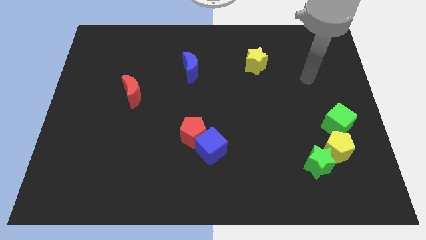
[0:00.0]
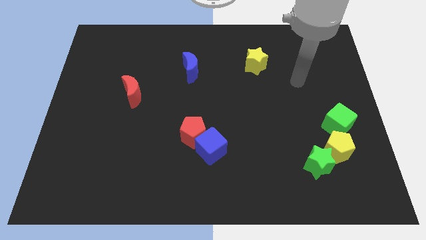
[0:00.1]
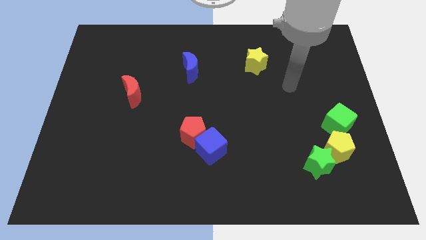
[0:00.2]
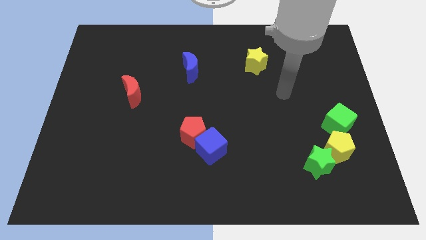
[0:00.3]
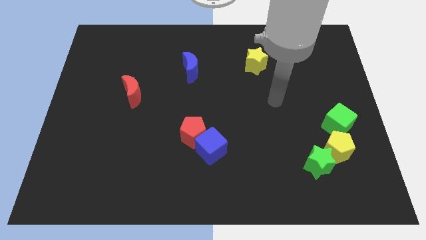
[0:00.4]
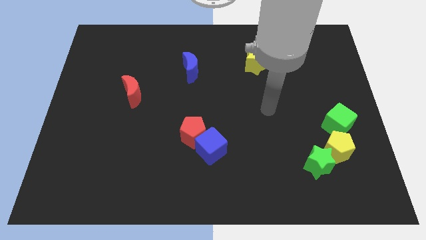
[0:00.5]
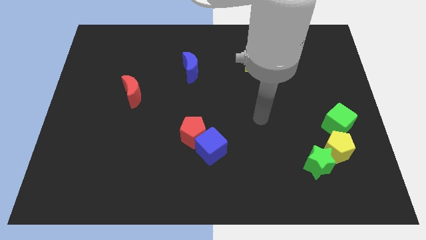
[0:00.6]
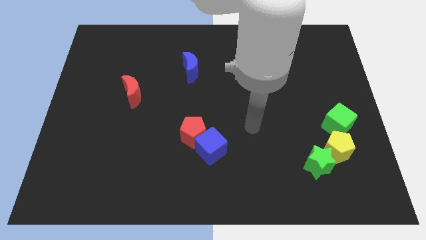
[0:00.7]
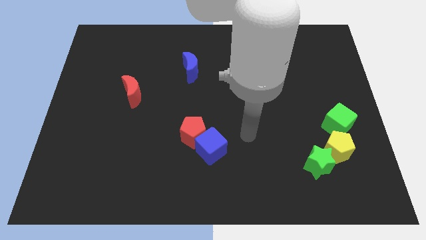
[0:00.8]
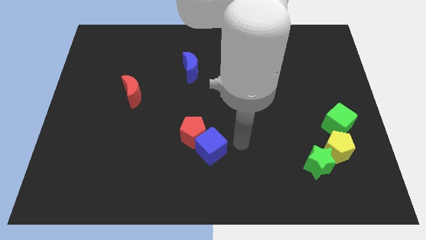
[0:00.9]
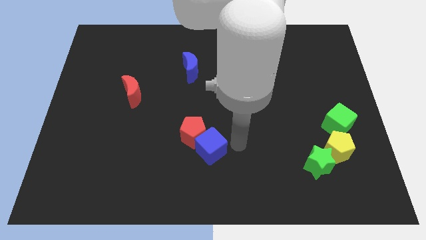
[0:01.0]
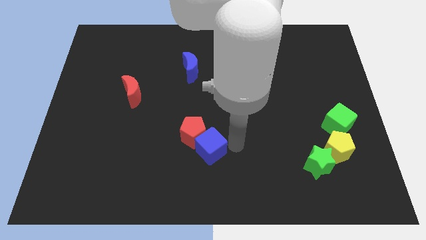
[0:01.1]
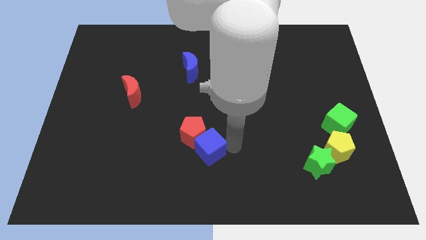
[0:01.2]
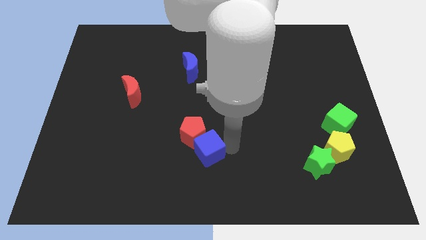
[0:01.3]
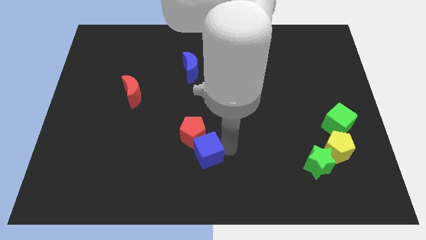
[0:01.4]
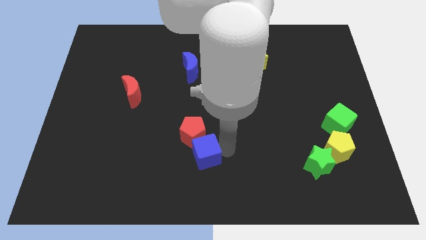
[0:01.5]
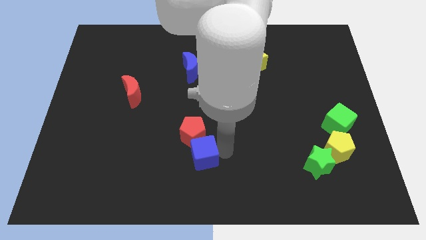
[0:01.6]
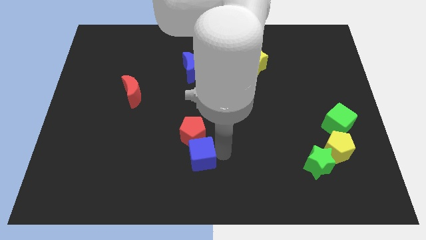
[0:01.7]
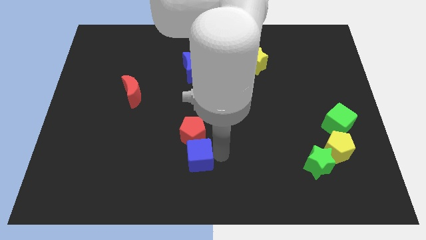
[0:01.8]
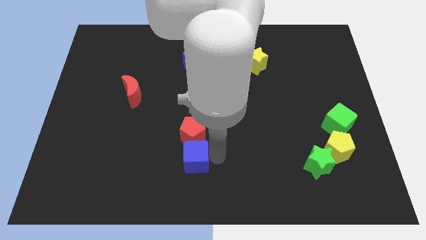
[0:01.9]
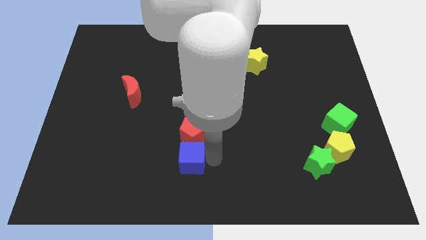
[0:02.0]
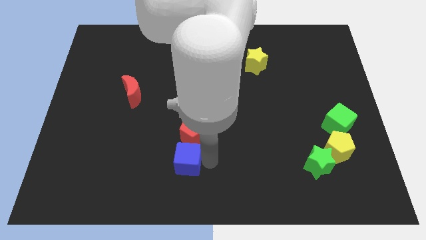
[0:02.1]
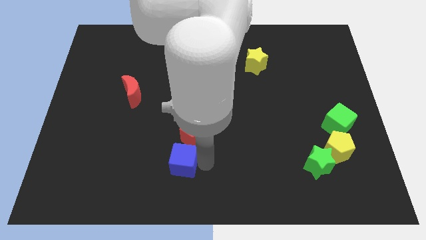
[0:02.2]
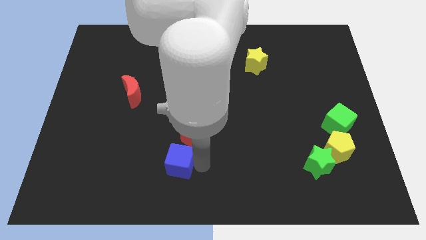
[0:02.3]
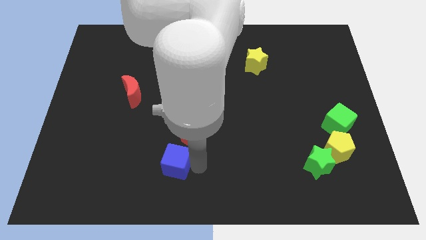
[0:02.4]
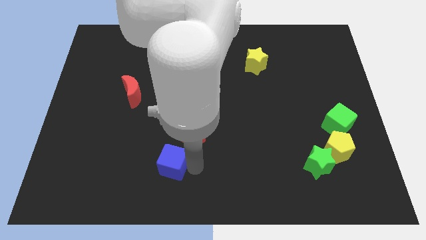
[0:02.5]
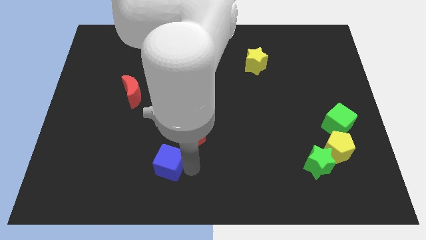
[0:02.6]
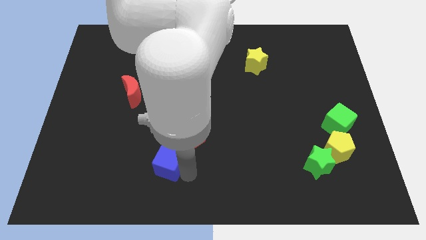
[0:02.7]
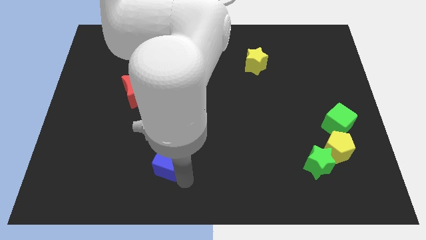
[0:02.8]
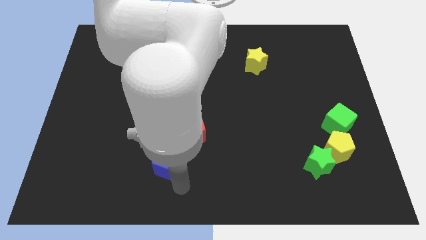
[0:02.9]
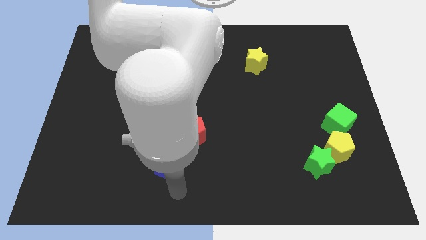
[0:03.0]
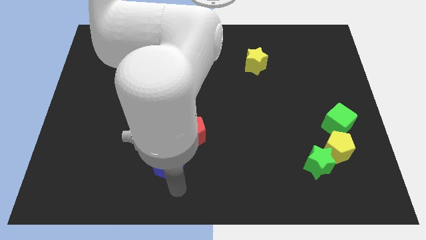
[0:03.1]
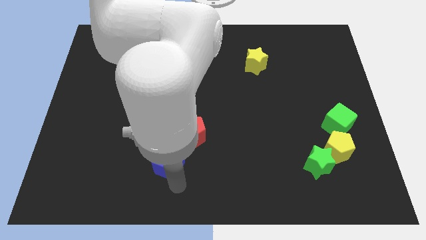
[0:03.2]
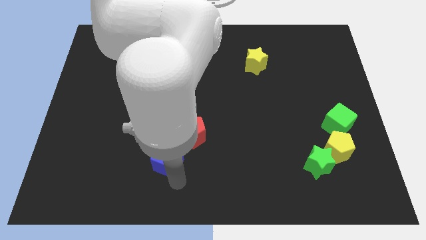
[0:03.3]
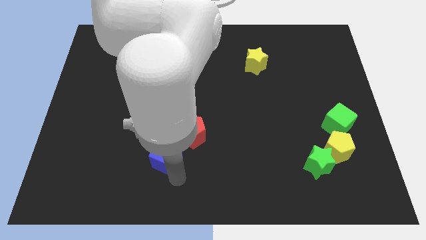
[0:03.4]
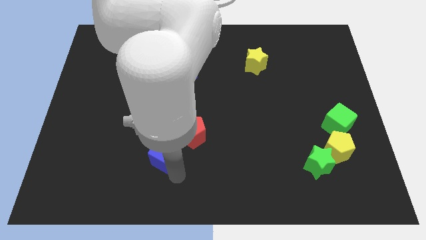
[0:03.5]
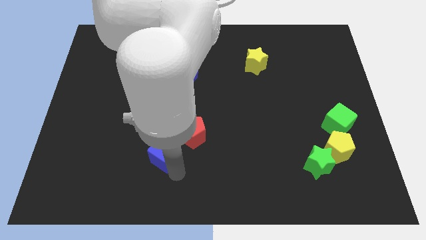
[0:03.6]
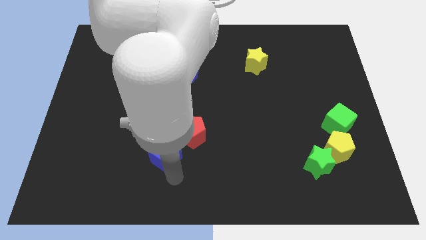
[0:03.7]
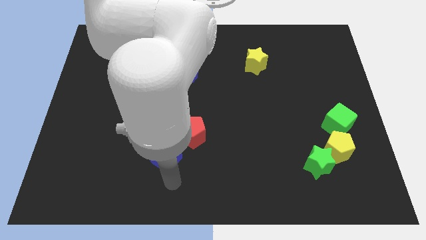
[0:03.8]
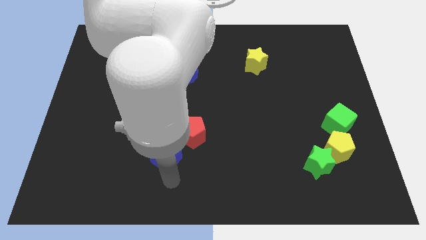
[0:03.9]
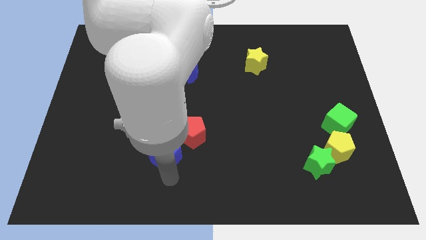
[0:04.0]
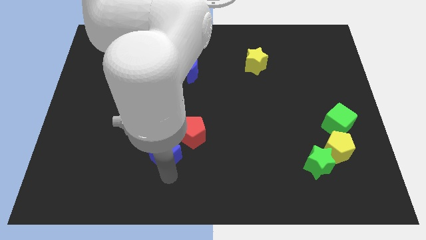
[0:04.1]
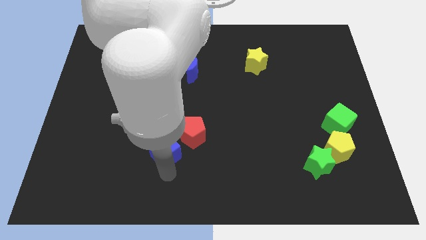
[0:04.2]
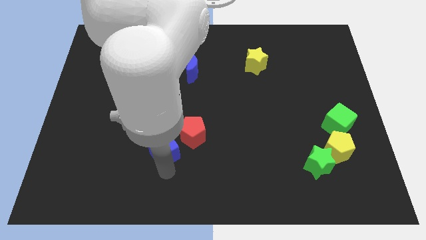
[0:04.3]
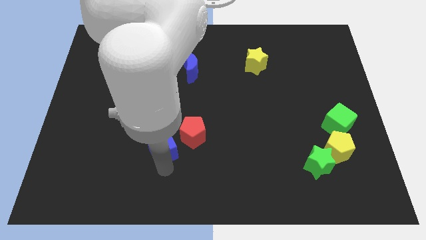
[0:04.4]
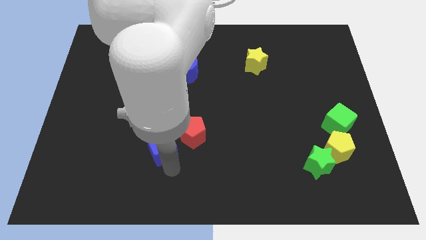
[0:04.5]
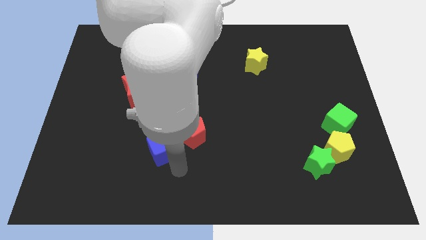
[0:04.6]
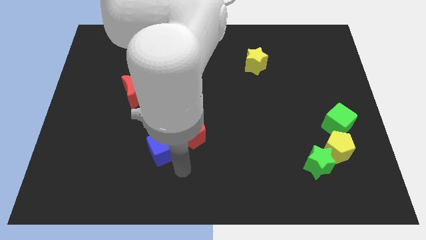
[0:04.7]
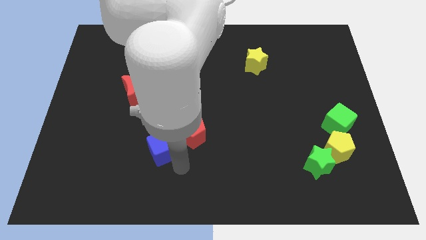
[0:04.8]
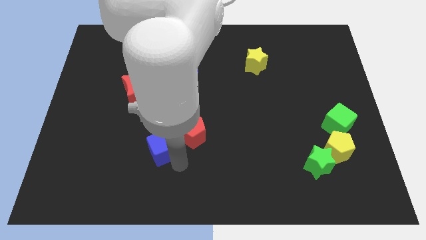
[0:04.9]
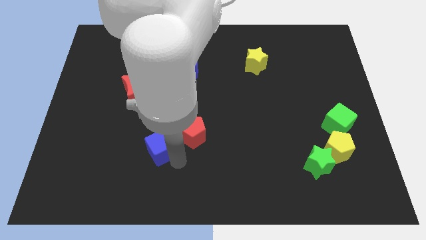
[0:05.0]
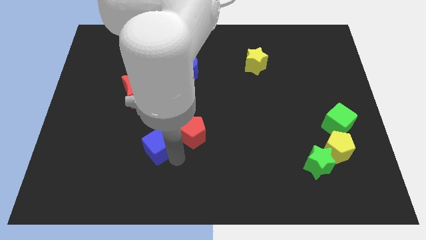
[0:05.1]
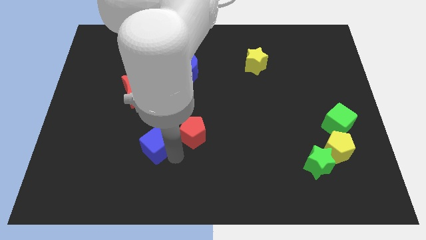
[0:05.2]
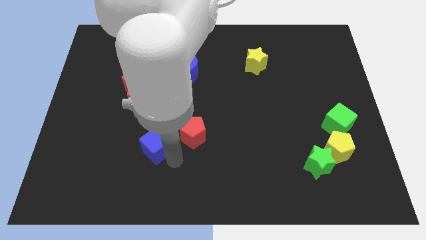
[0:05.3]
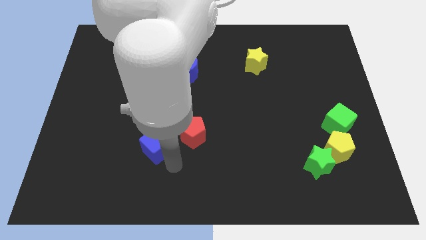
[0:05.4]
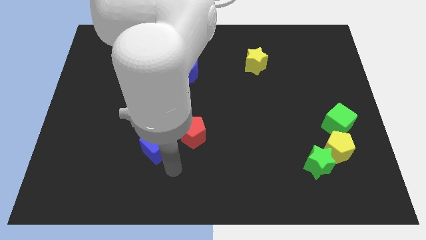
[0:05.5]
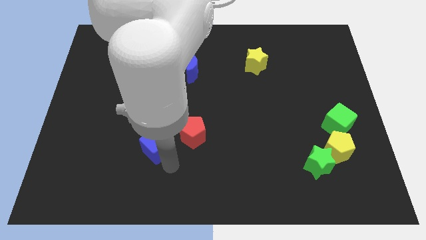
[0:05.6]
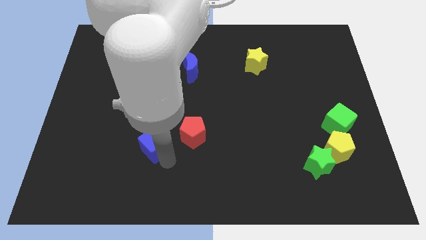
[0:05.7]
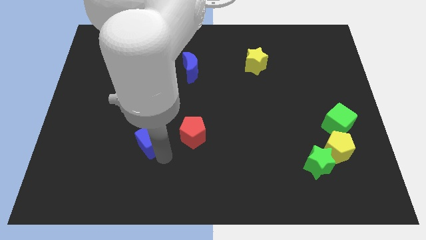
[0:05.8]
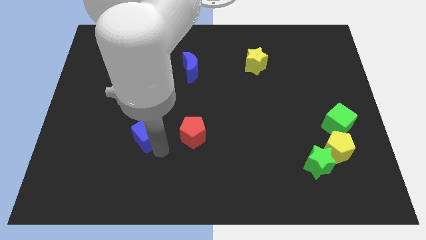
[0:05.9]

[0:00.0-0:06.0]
slide the blue cube to the bottom side of the red moon

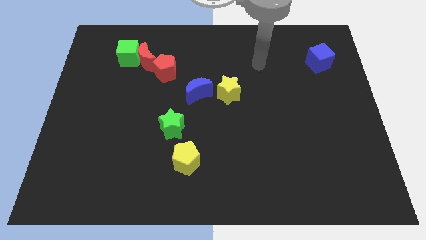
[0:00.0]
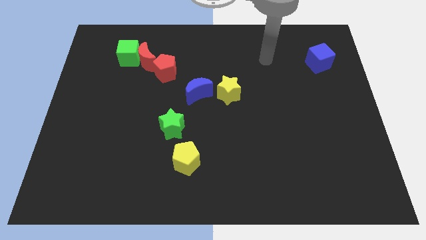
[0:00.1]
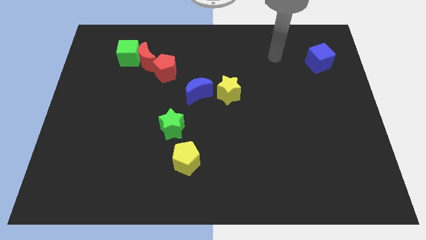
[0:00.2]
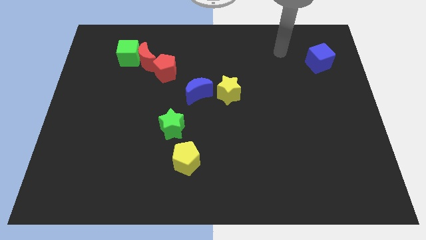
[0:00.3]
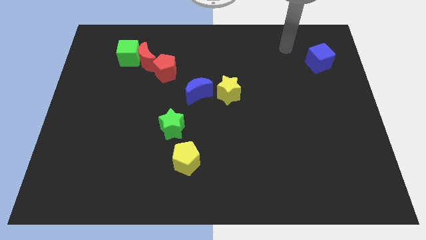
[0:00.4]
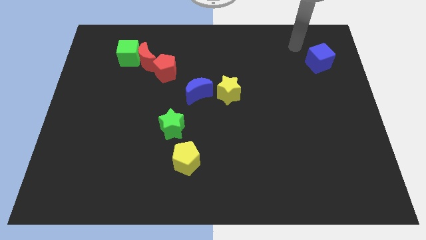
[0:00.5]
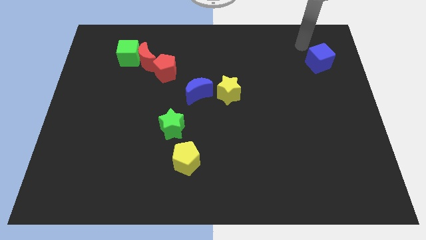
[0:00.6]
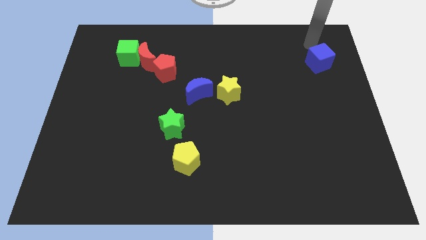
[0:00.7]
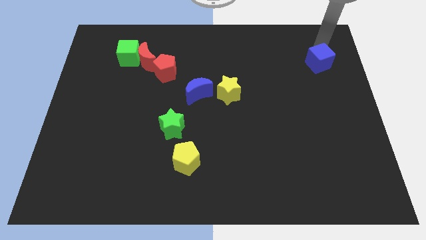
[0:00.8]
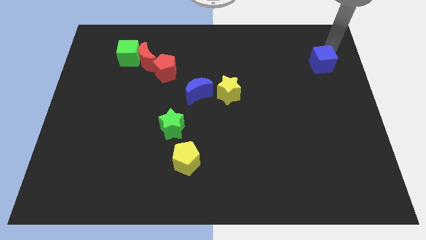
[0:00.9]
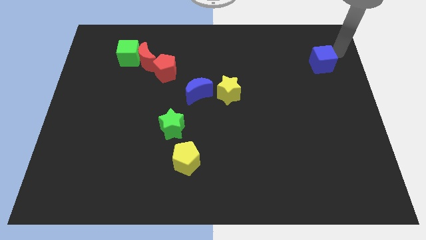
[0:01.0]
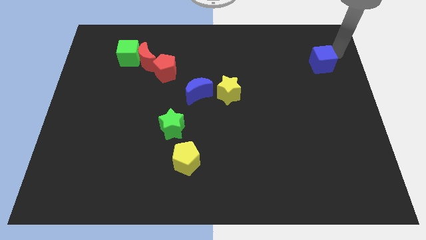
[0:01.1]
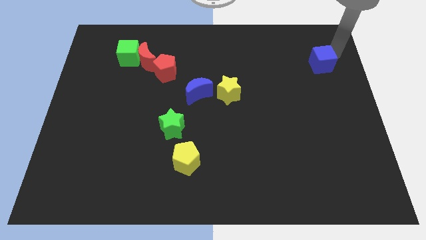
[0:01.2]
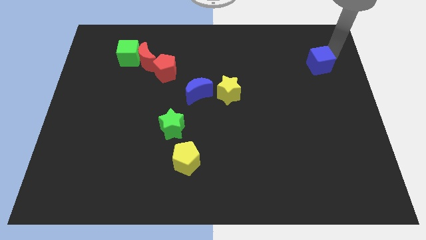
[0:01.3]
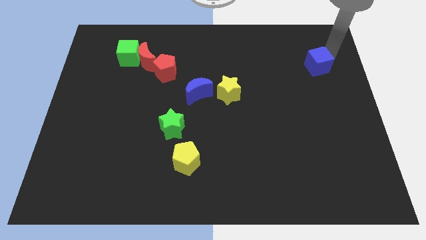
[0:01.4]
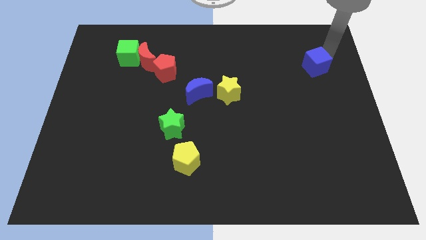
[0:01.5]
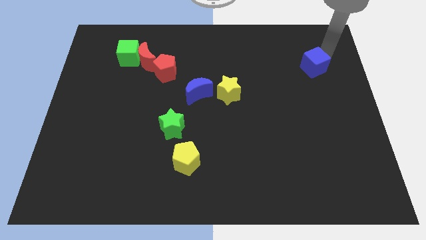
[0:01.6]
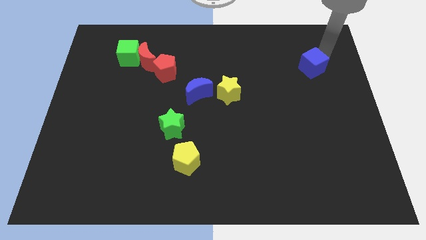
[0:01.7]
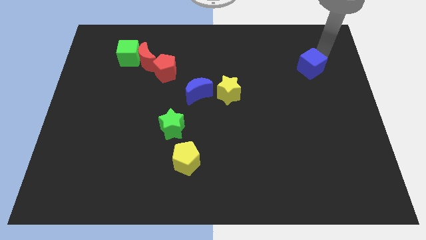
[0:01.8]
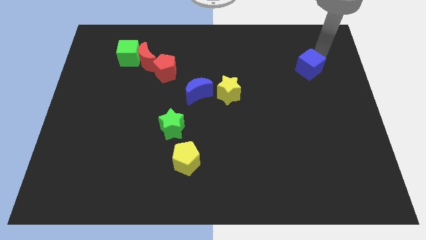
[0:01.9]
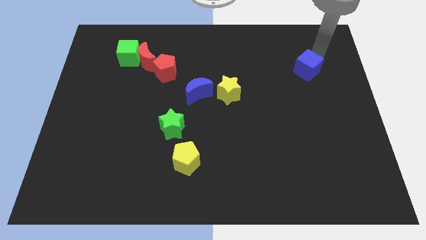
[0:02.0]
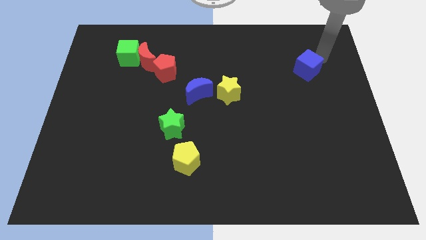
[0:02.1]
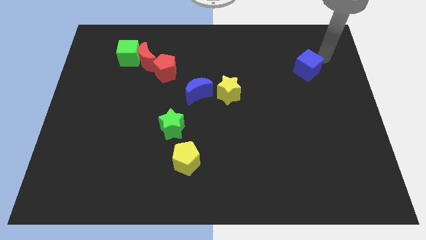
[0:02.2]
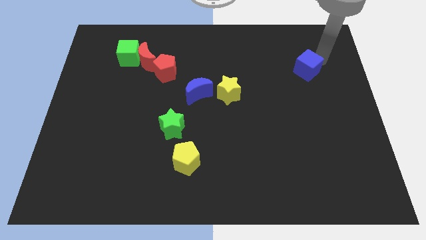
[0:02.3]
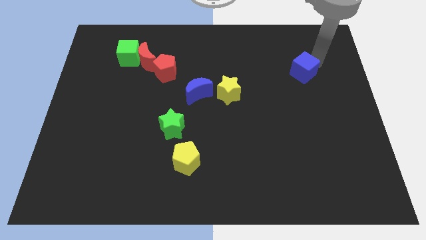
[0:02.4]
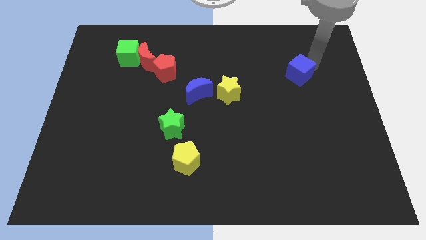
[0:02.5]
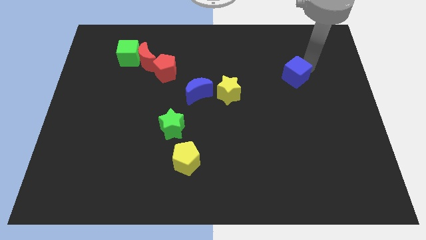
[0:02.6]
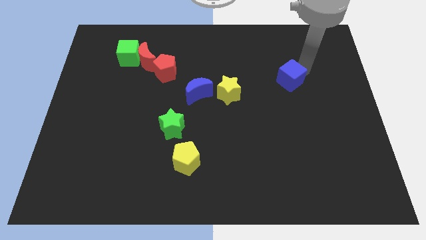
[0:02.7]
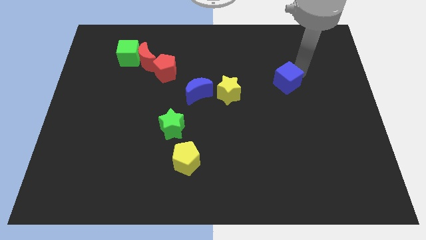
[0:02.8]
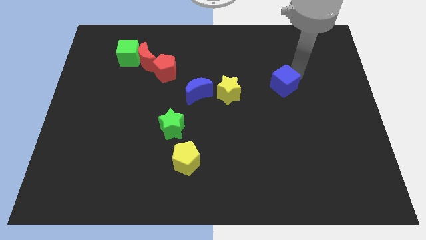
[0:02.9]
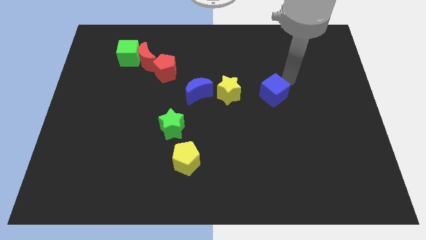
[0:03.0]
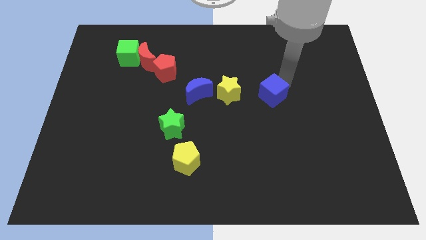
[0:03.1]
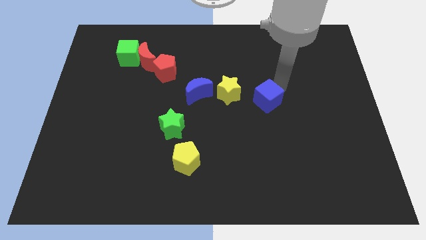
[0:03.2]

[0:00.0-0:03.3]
put the blue cube diagonally down and to the right of the yellow star
